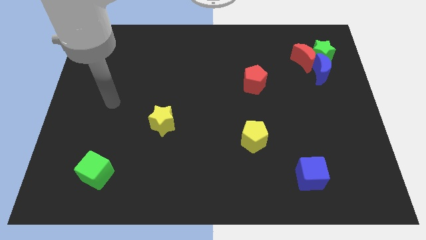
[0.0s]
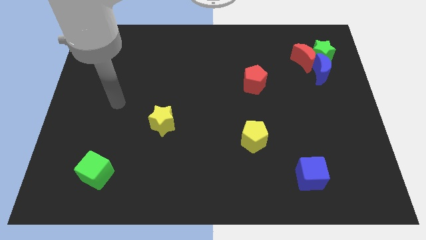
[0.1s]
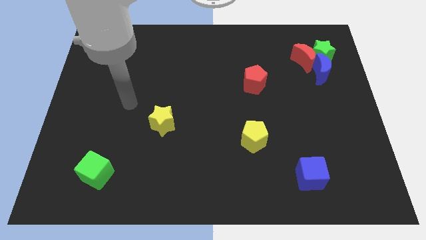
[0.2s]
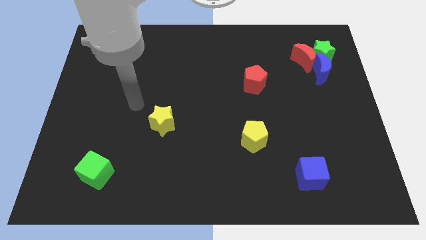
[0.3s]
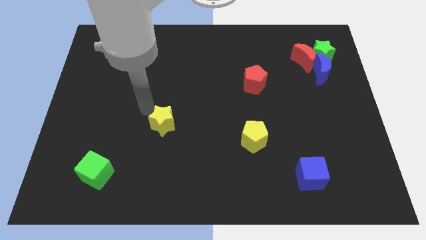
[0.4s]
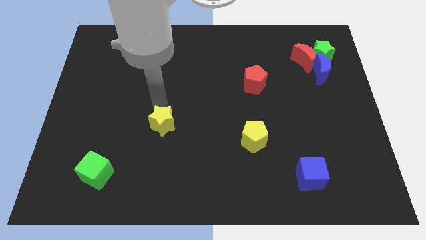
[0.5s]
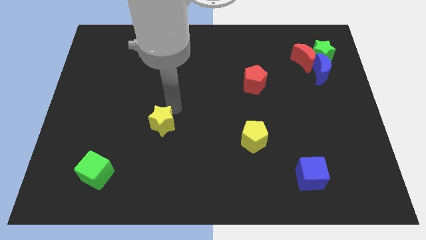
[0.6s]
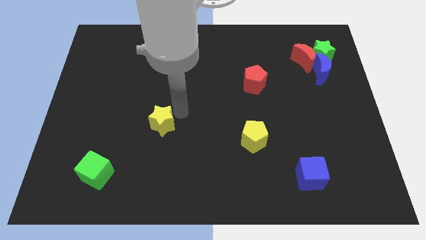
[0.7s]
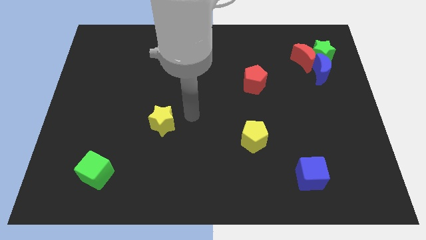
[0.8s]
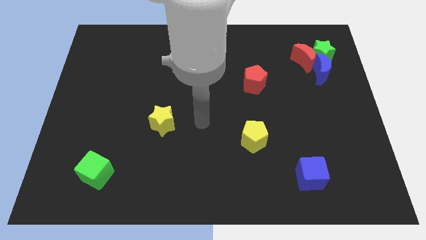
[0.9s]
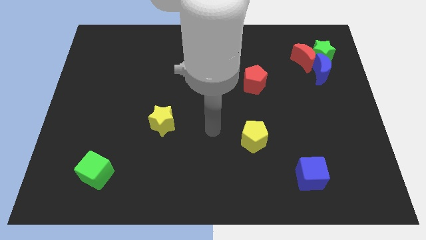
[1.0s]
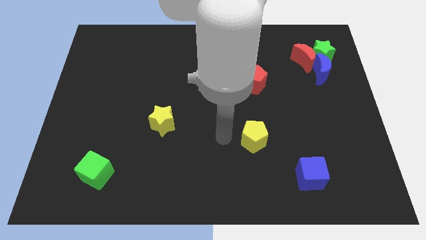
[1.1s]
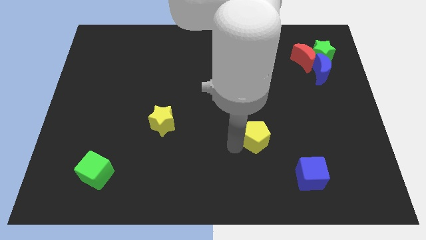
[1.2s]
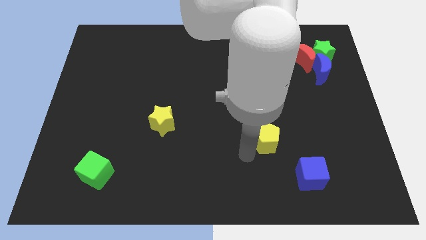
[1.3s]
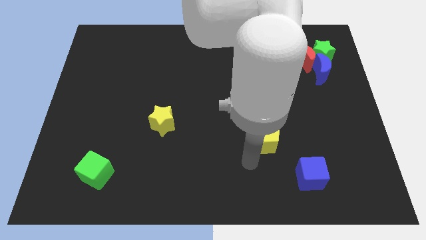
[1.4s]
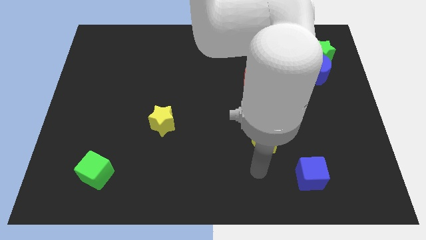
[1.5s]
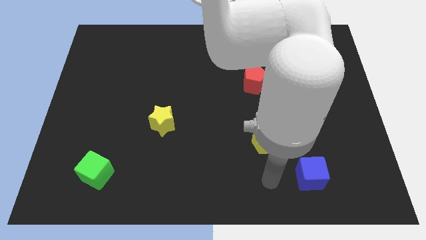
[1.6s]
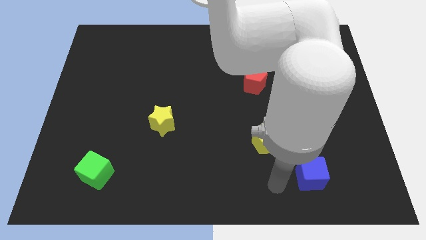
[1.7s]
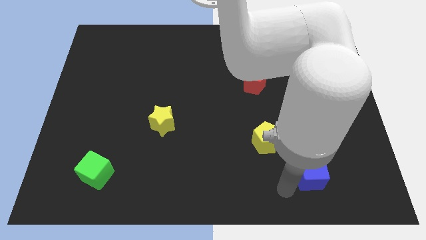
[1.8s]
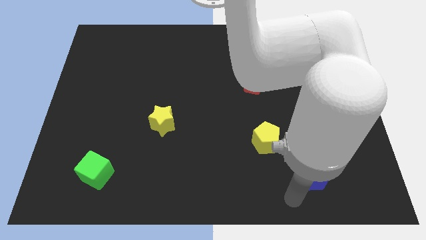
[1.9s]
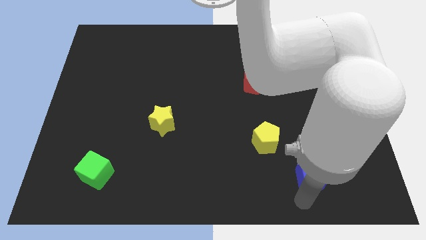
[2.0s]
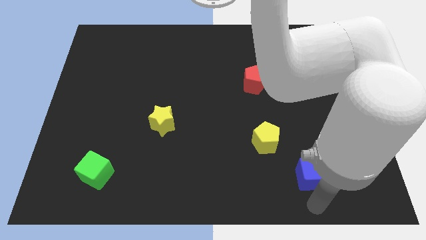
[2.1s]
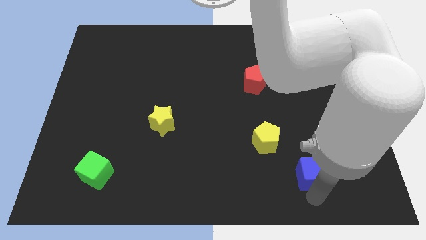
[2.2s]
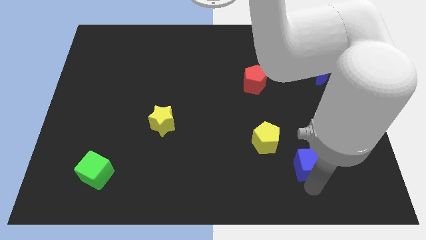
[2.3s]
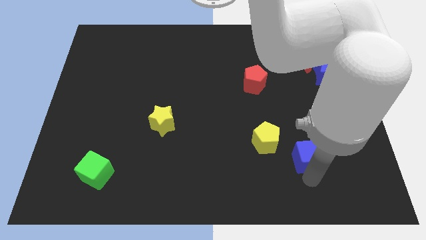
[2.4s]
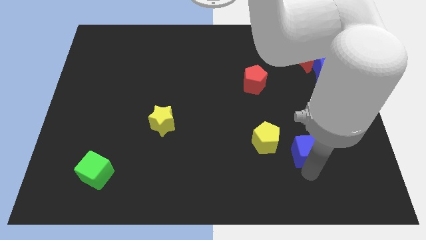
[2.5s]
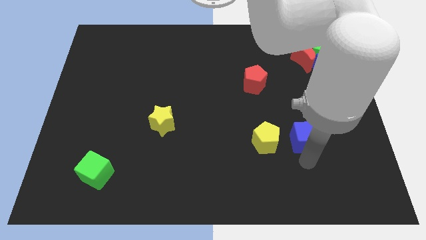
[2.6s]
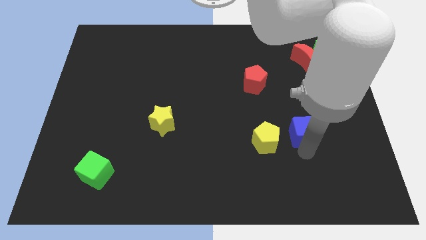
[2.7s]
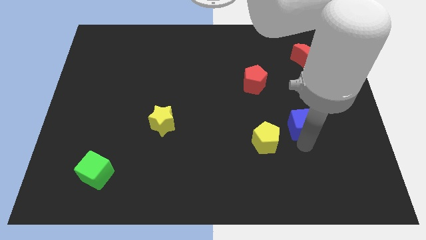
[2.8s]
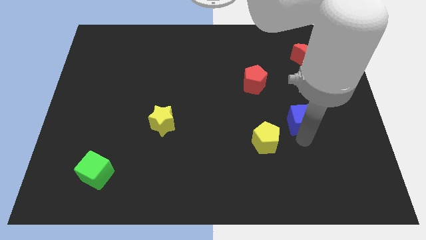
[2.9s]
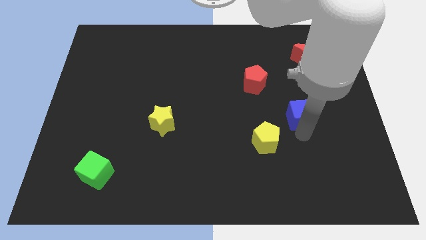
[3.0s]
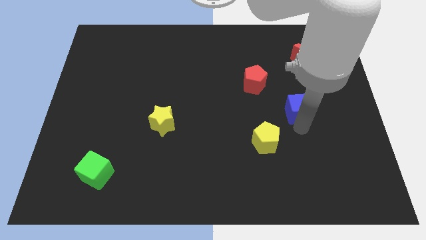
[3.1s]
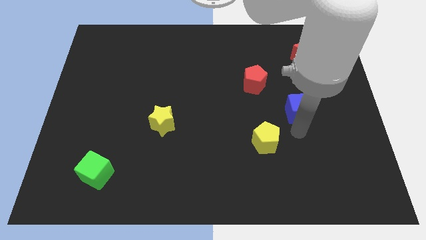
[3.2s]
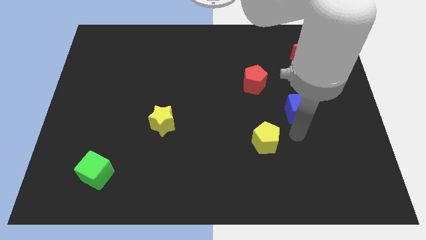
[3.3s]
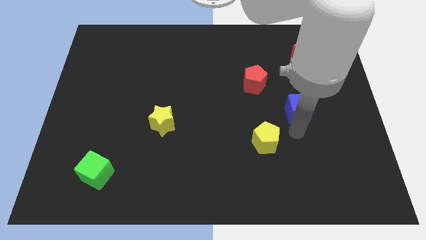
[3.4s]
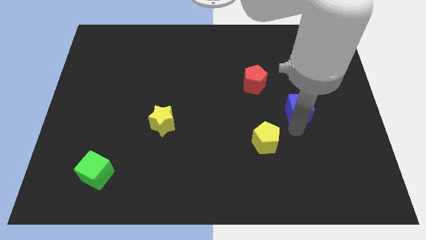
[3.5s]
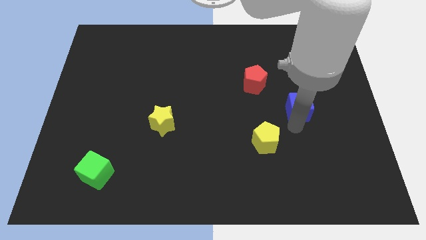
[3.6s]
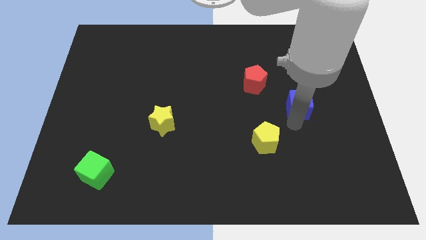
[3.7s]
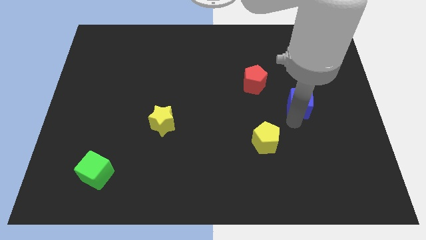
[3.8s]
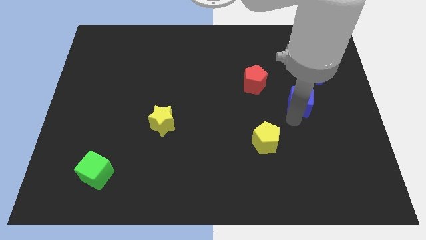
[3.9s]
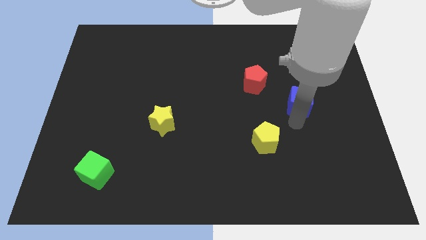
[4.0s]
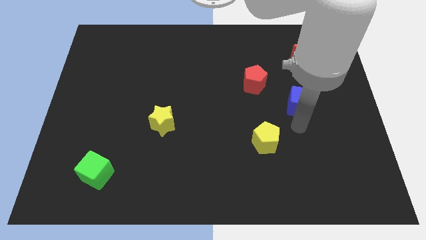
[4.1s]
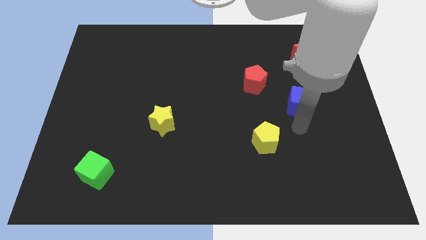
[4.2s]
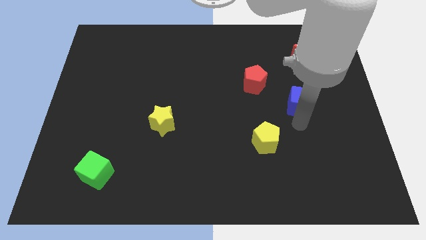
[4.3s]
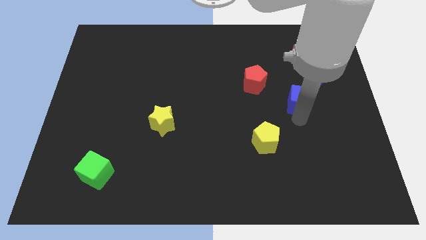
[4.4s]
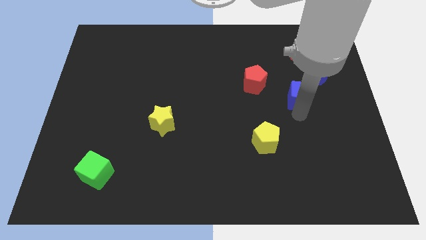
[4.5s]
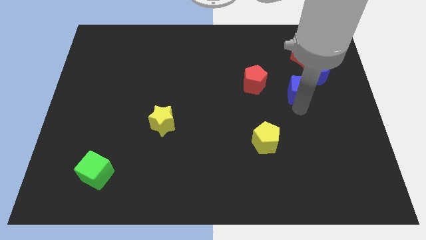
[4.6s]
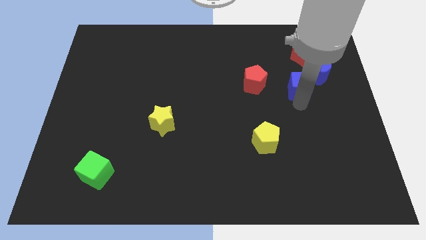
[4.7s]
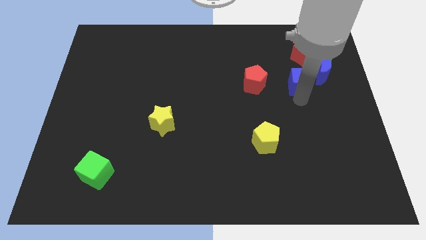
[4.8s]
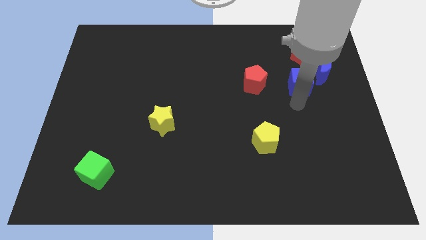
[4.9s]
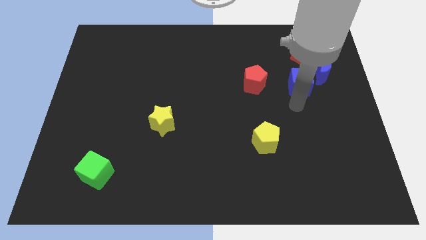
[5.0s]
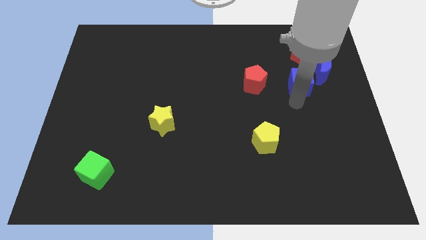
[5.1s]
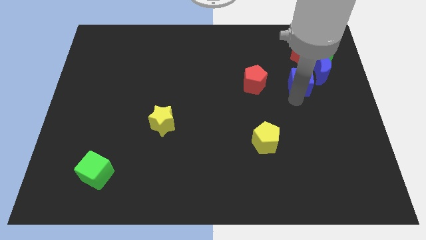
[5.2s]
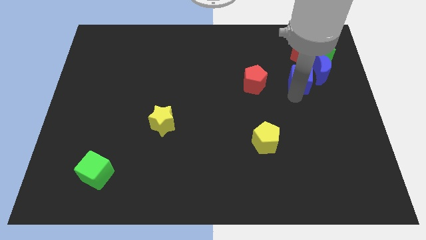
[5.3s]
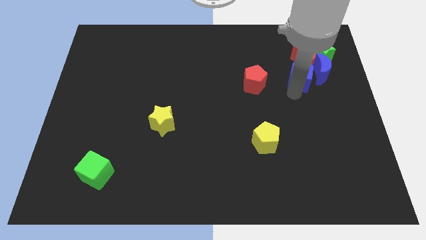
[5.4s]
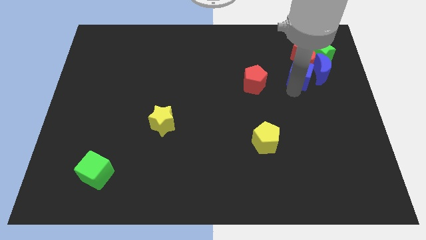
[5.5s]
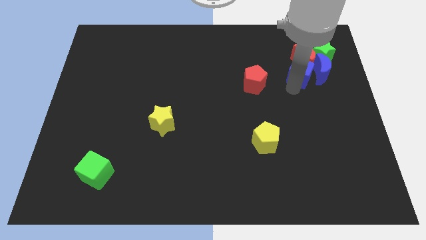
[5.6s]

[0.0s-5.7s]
slide the blue cube to the red moon

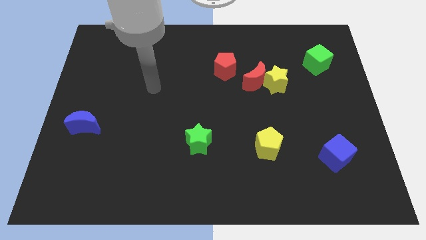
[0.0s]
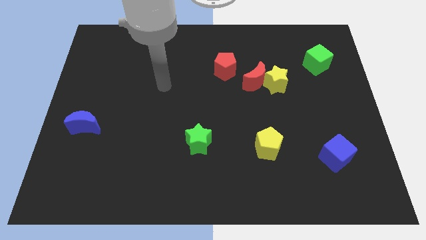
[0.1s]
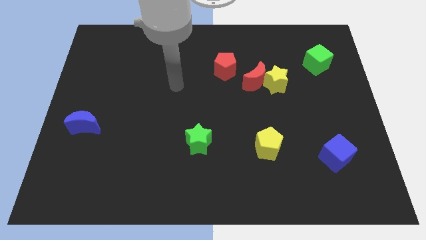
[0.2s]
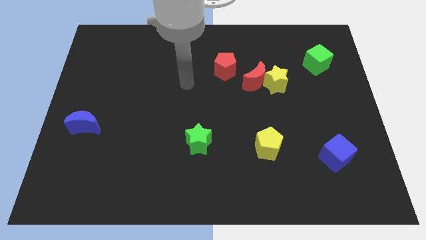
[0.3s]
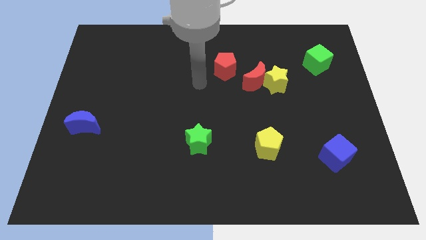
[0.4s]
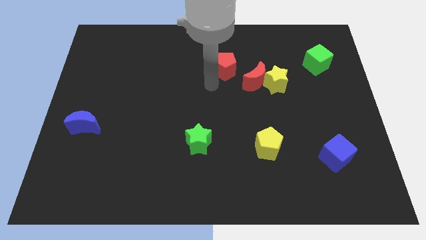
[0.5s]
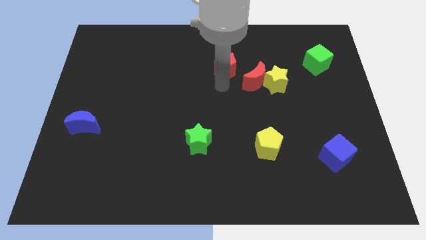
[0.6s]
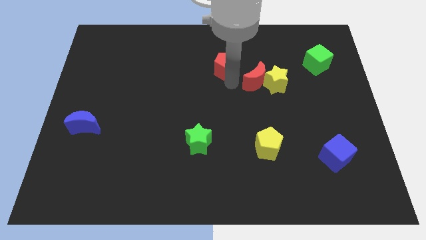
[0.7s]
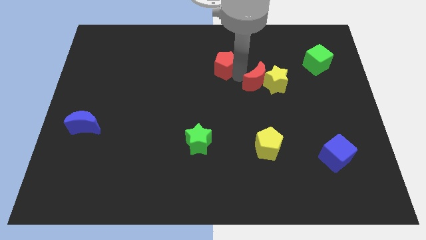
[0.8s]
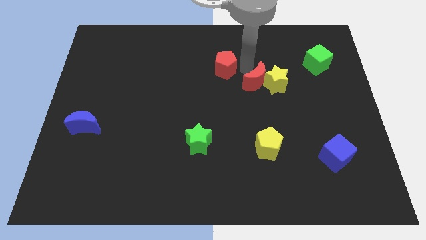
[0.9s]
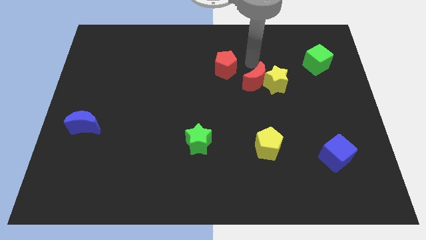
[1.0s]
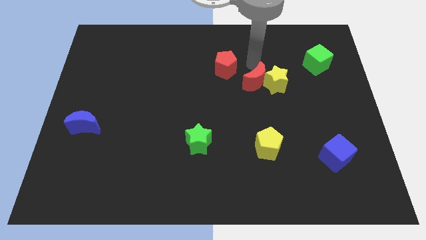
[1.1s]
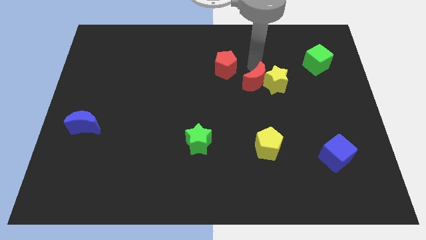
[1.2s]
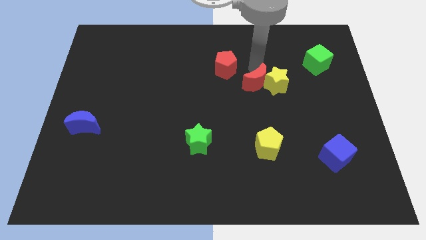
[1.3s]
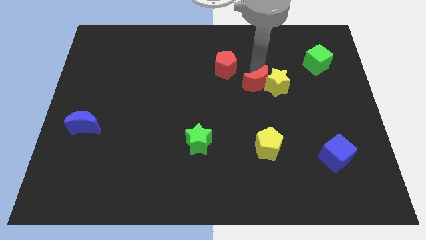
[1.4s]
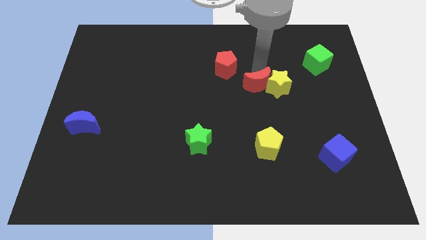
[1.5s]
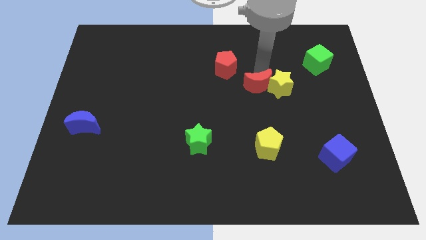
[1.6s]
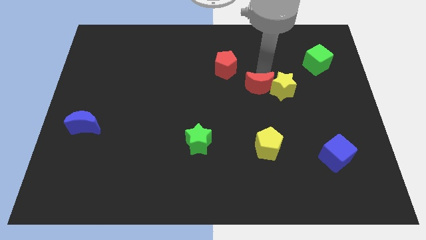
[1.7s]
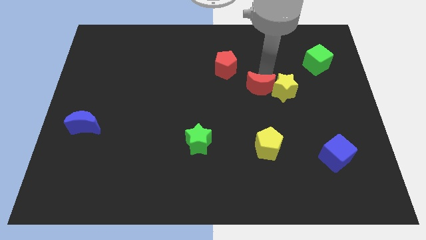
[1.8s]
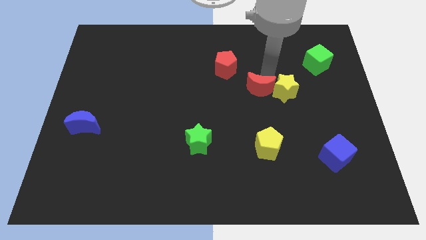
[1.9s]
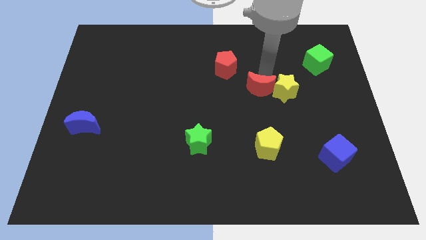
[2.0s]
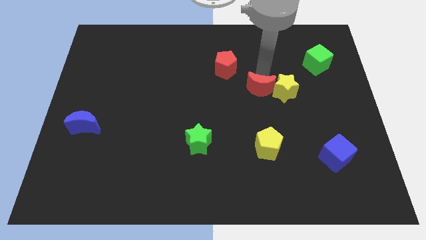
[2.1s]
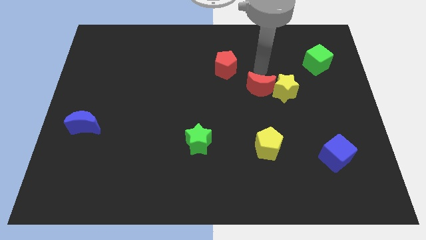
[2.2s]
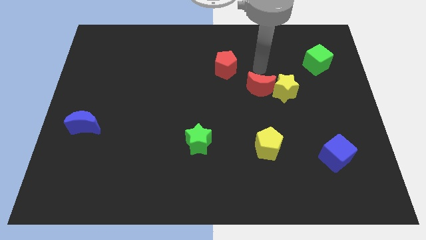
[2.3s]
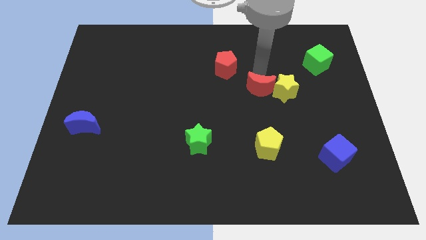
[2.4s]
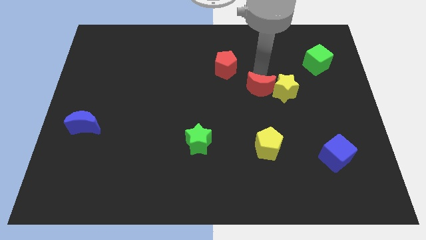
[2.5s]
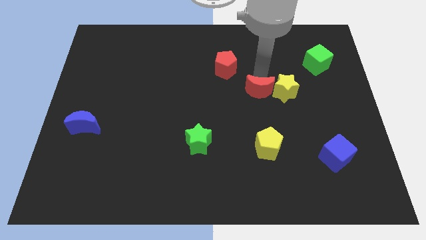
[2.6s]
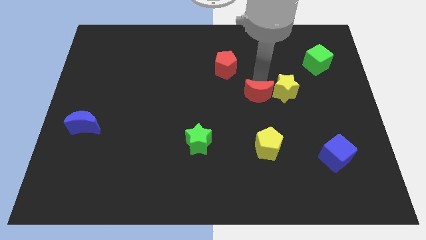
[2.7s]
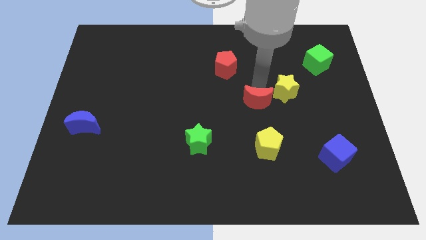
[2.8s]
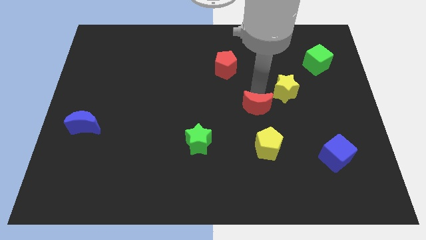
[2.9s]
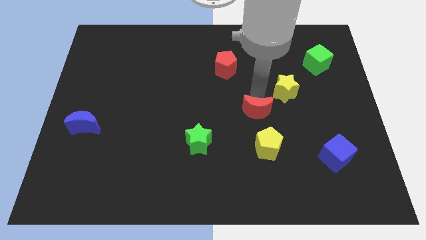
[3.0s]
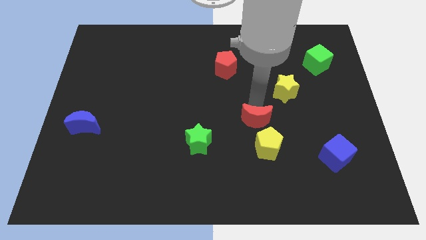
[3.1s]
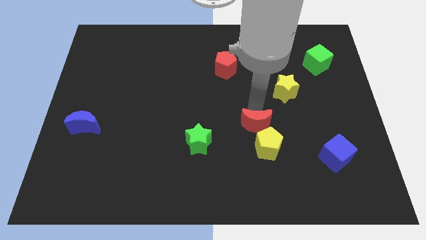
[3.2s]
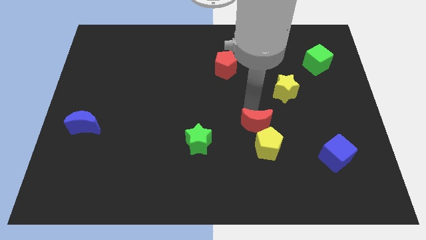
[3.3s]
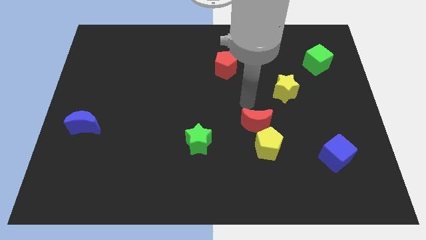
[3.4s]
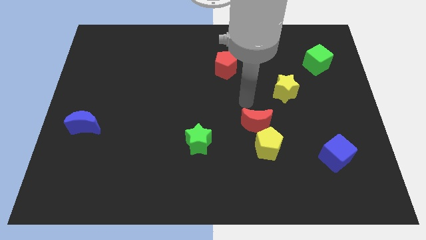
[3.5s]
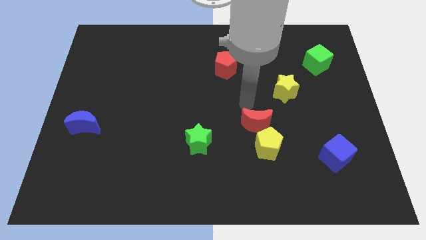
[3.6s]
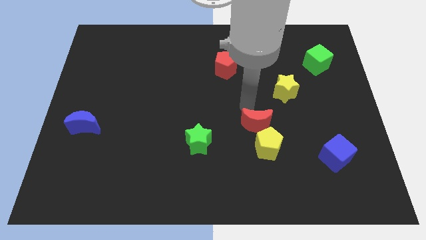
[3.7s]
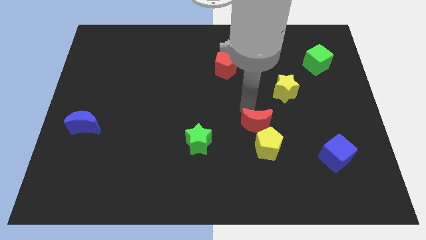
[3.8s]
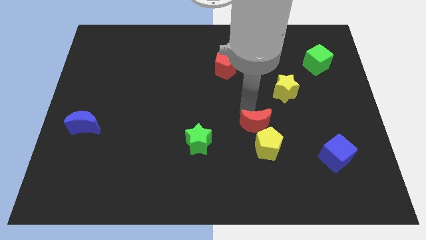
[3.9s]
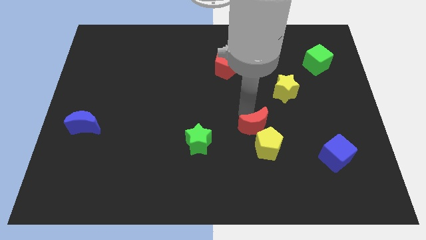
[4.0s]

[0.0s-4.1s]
push the red moon next to the yellow pentagon
